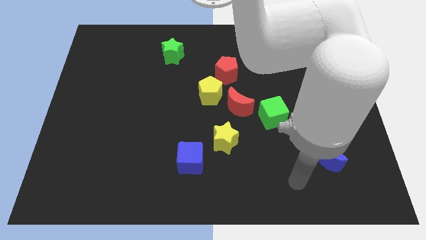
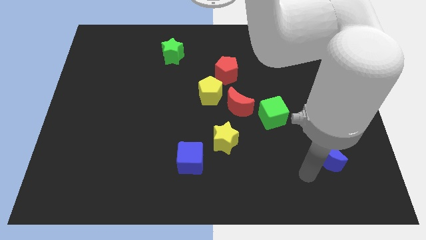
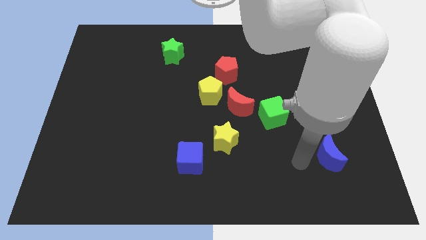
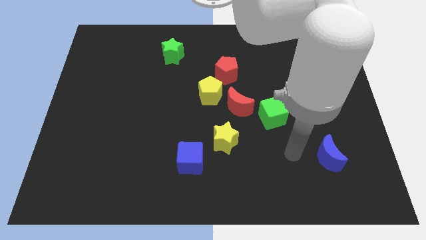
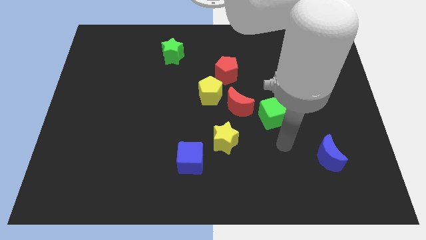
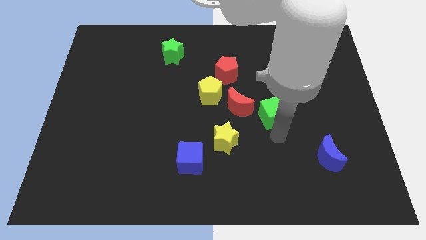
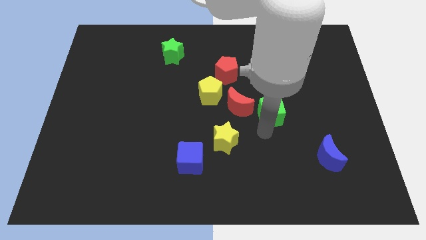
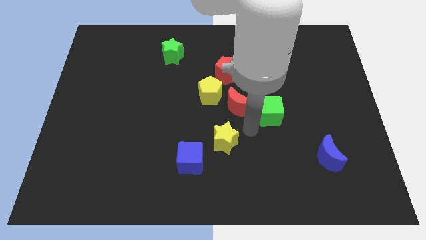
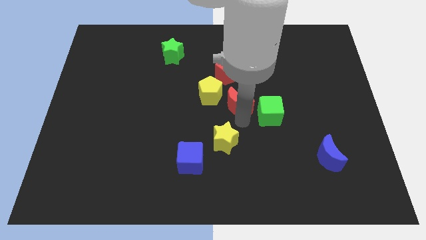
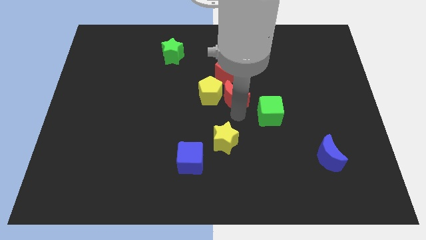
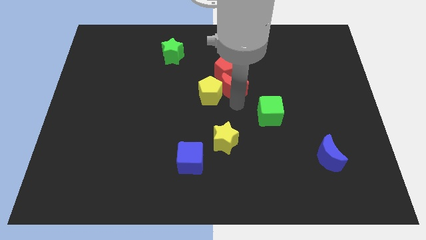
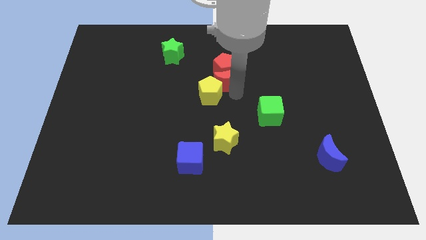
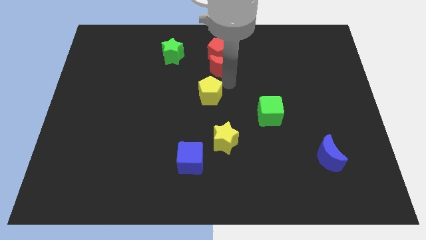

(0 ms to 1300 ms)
separate the yellow pentagon from the red moon and red pentagon

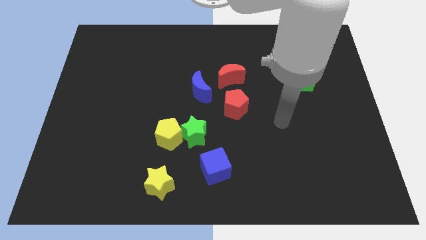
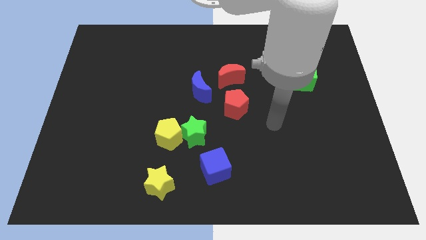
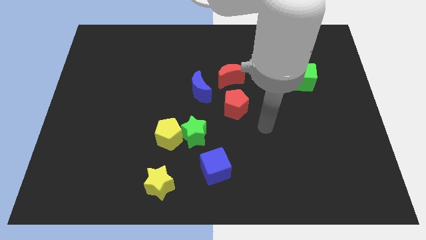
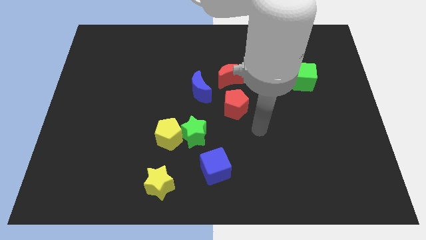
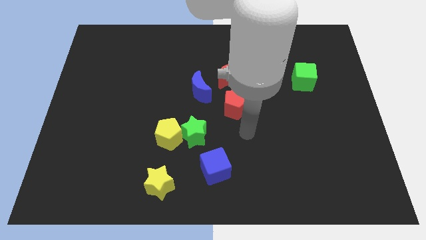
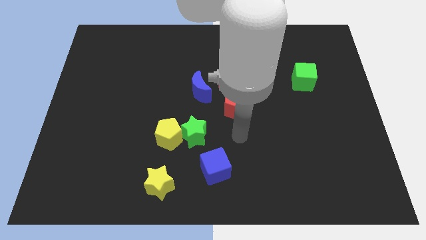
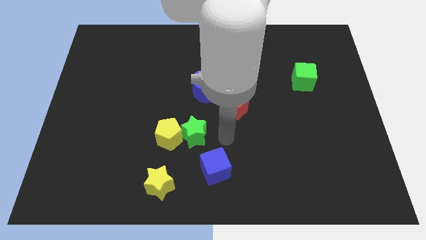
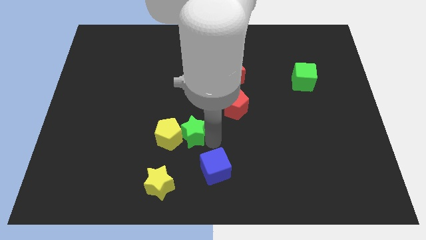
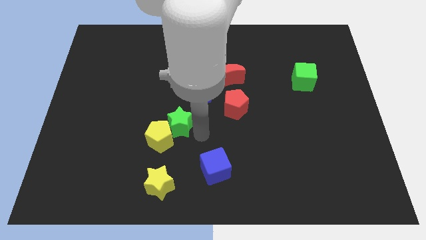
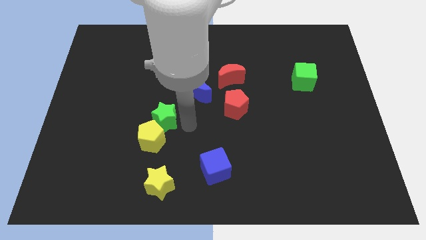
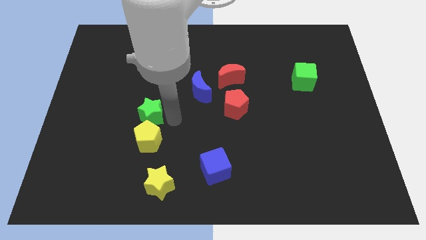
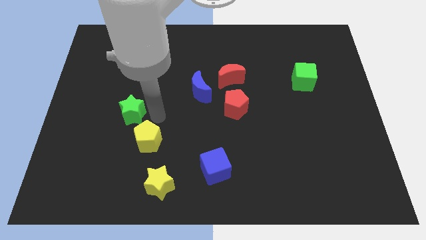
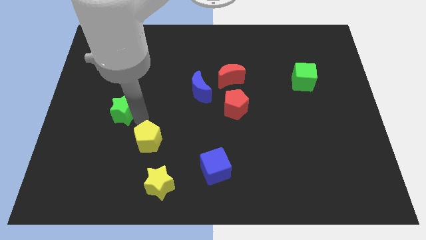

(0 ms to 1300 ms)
pull the yellow pentagon apart from the green star

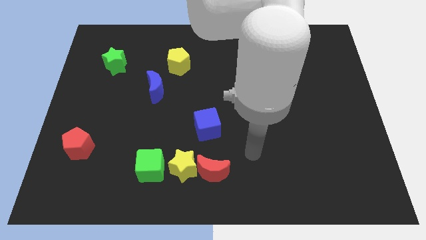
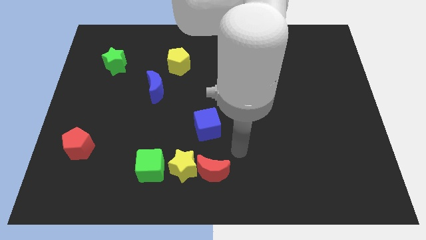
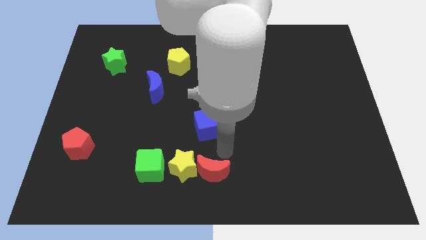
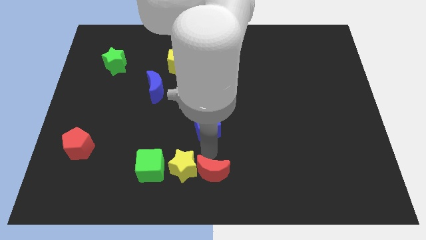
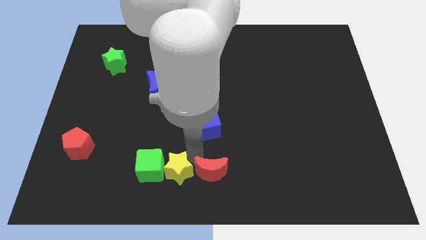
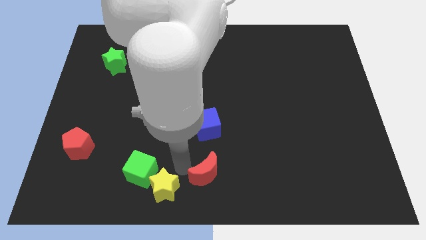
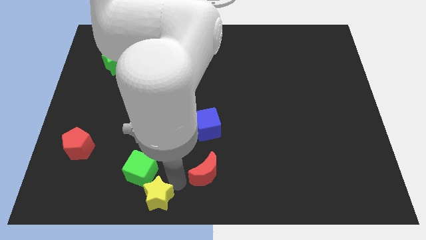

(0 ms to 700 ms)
move the red moon away from the yellow star

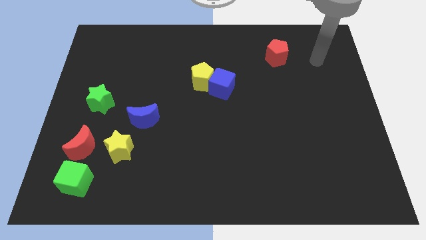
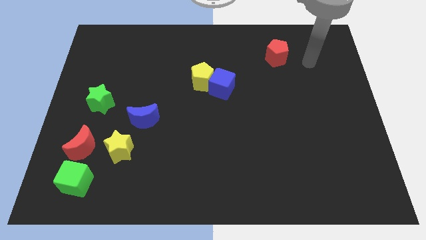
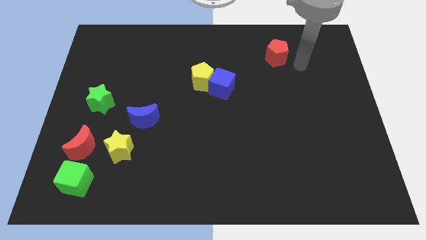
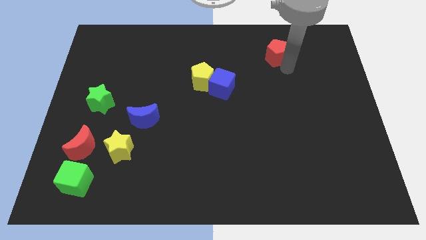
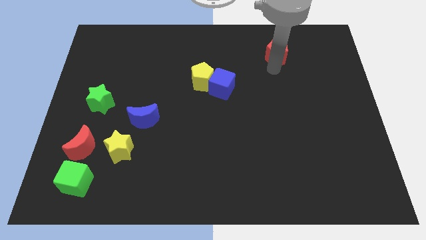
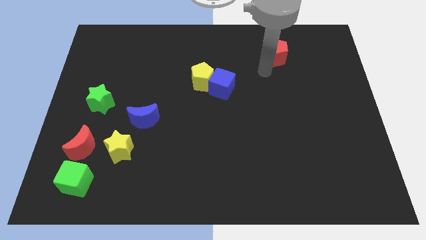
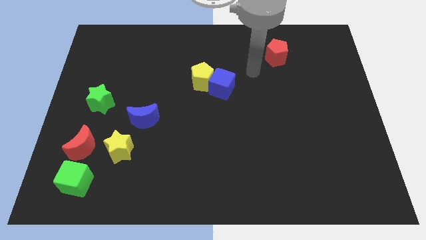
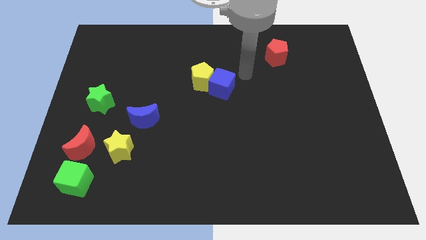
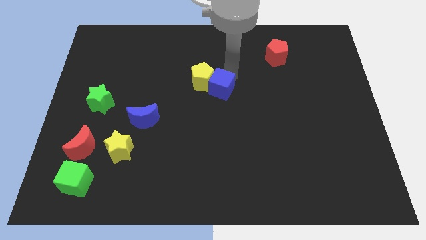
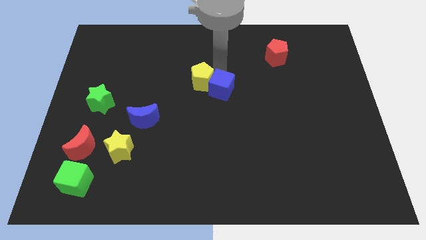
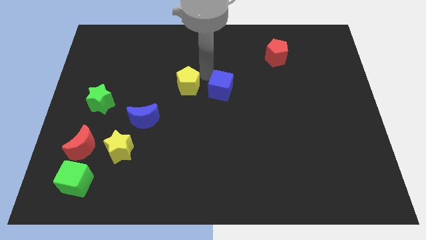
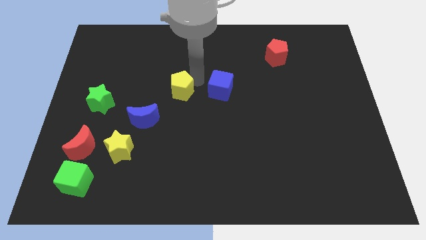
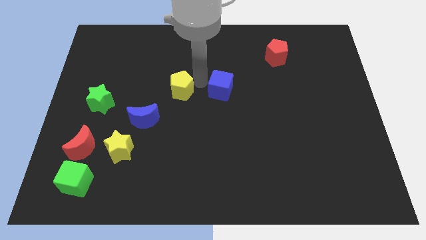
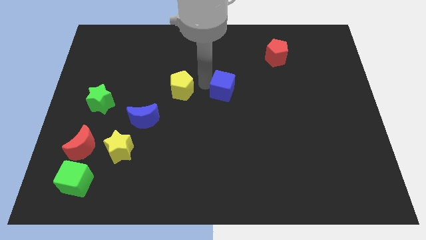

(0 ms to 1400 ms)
pull the blue cube apart from the yellow pentagon

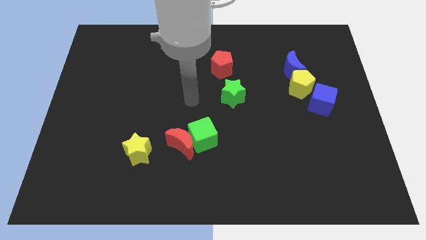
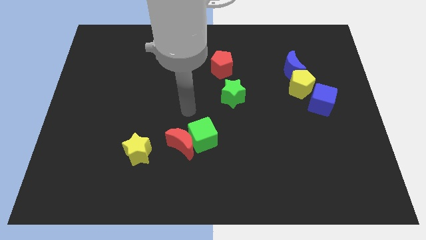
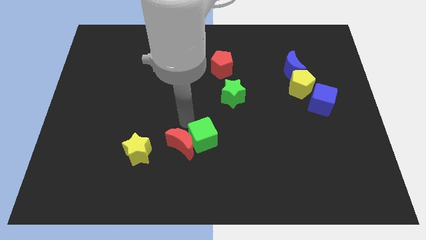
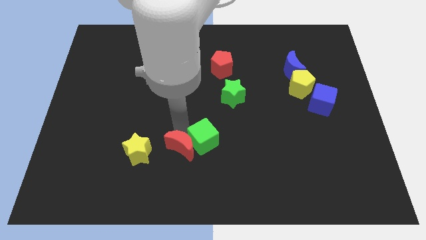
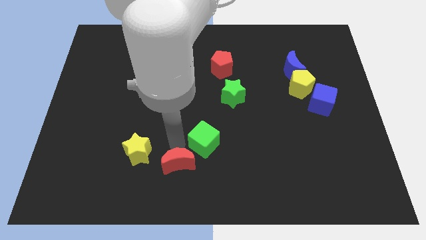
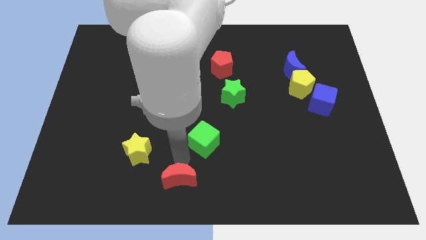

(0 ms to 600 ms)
move the green cube away from the red moon

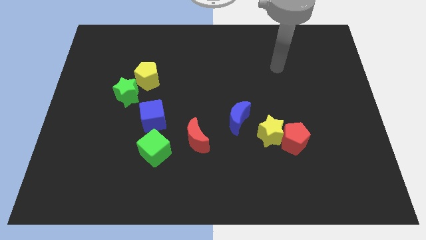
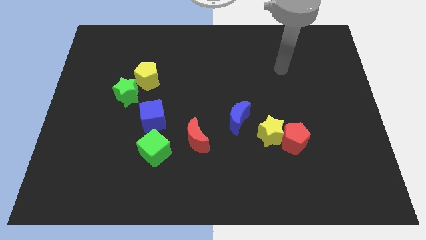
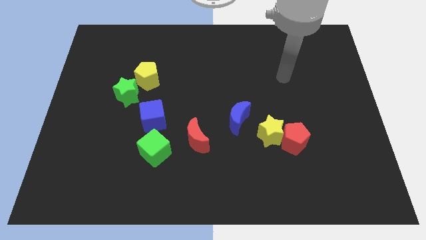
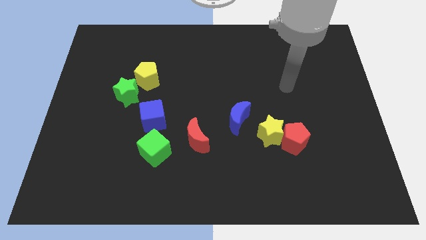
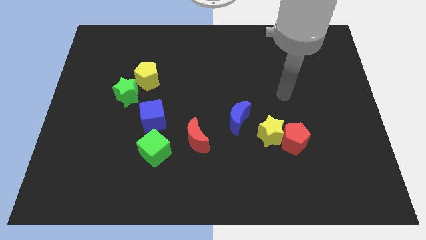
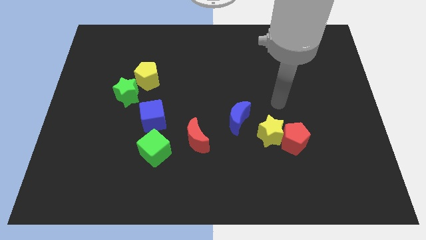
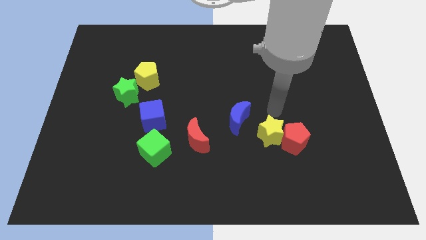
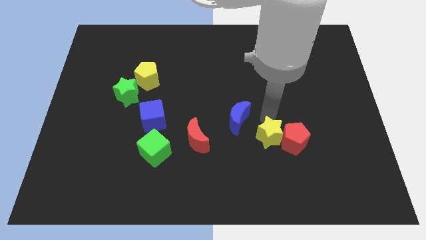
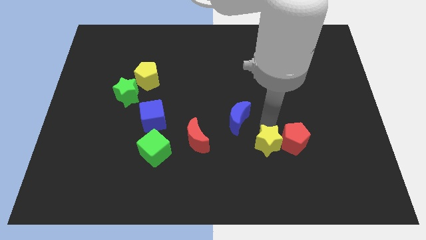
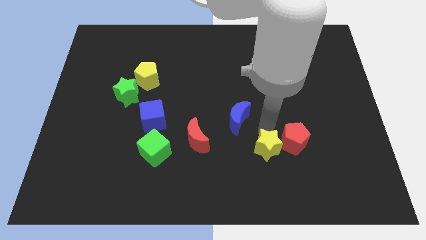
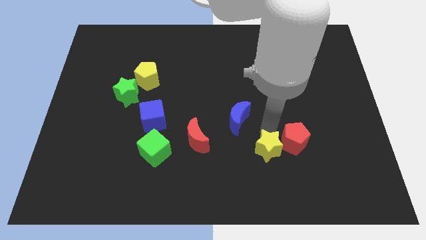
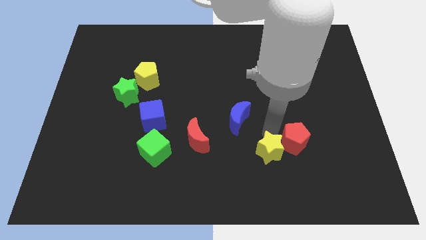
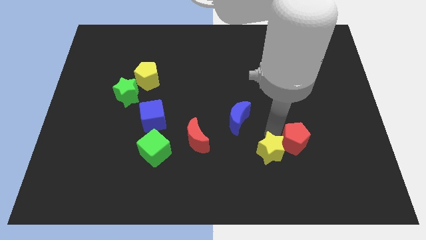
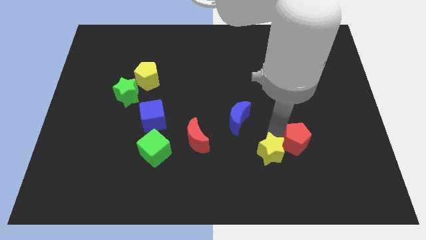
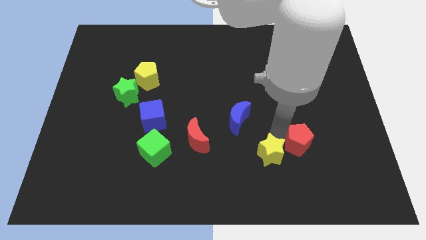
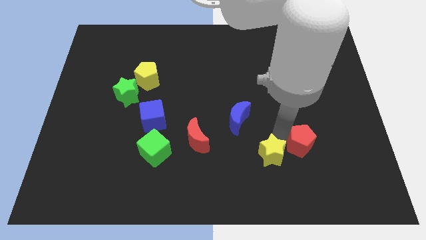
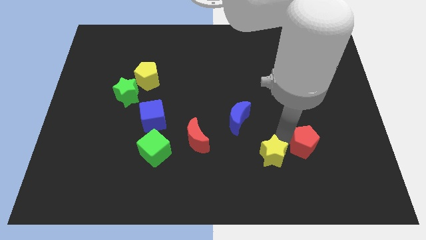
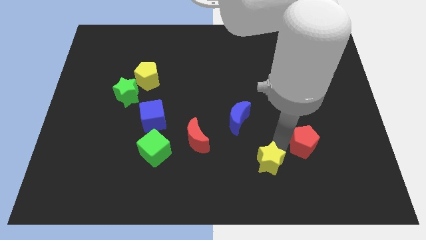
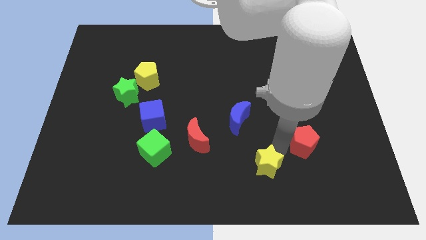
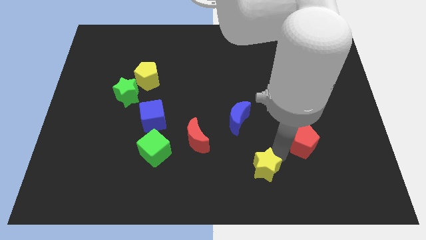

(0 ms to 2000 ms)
separate the red pentagon from the yellow star

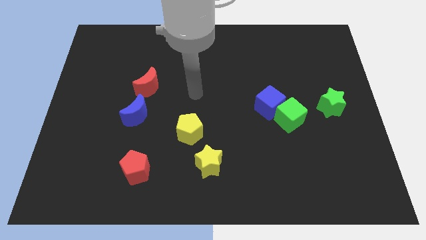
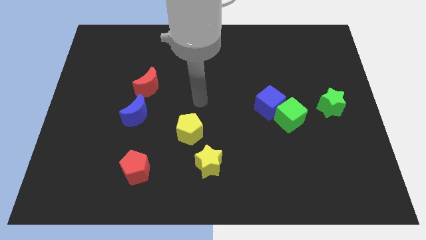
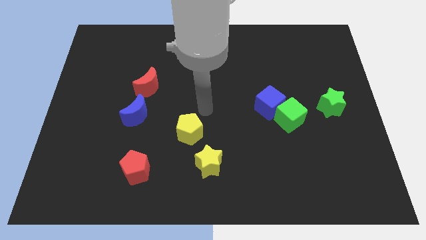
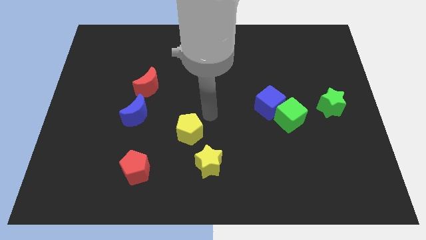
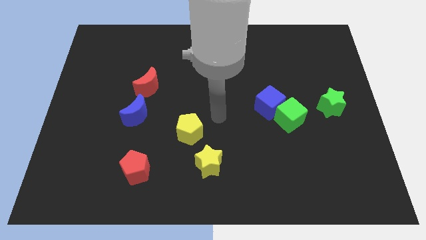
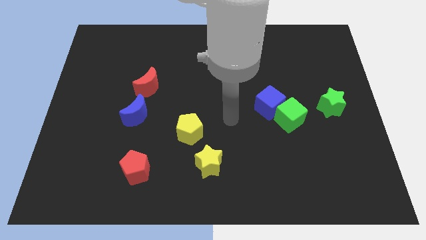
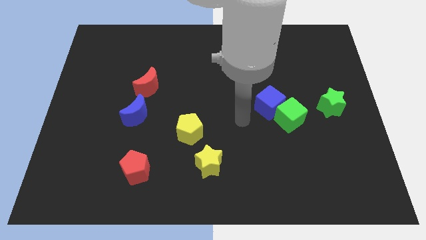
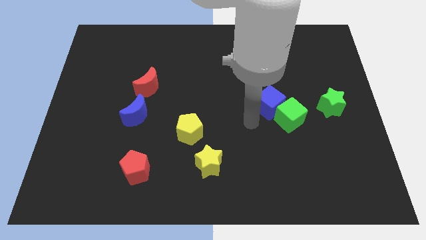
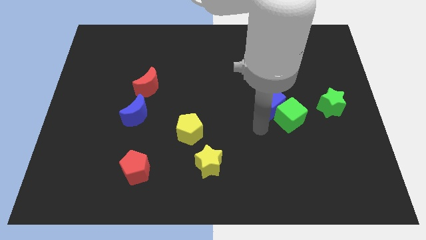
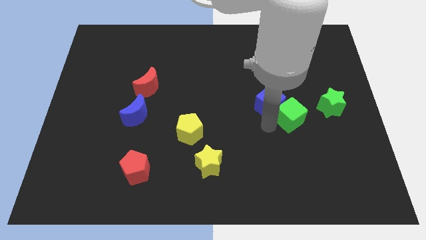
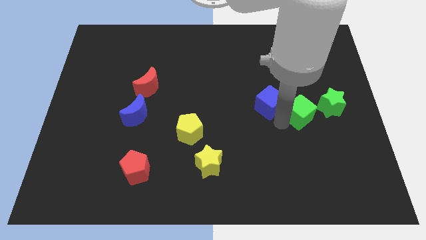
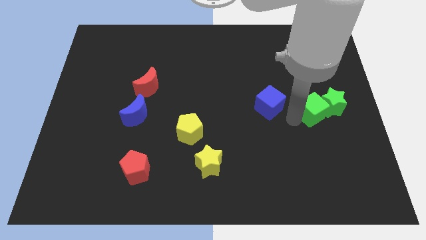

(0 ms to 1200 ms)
separate the blue cube from the green cube

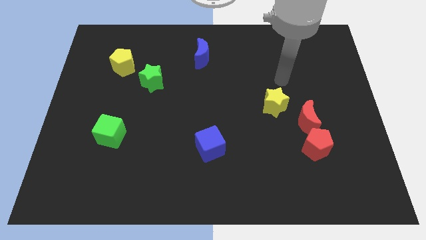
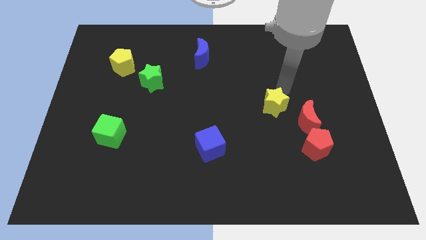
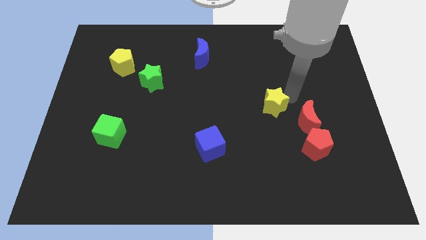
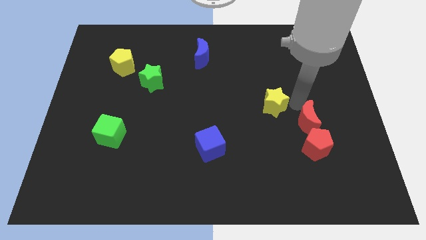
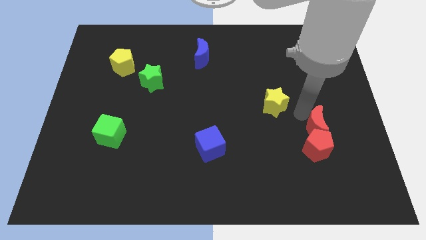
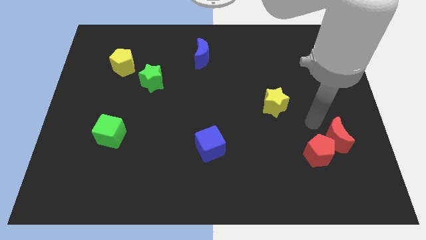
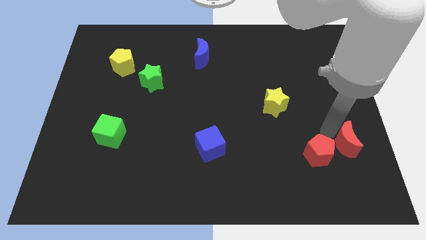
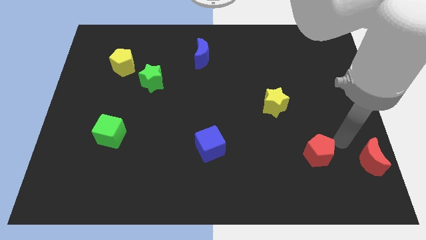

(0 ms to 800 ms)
move the red pentagon away from the red moon

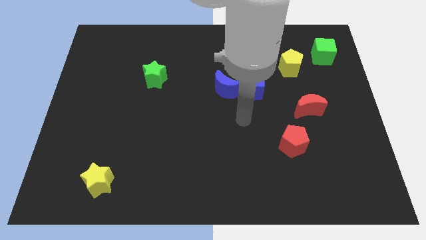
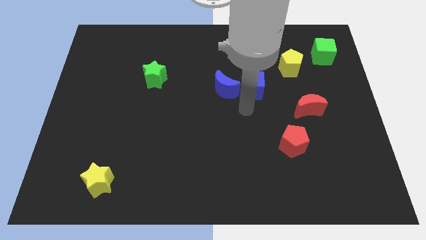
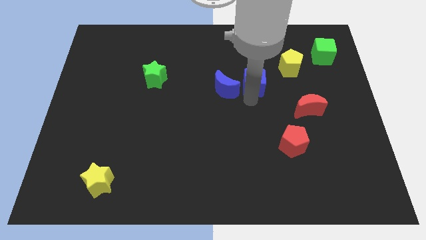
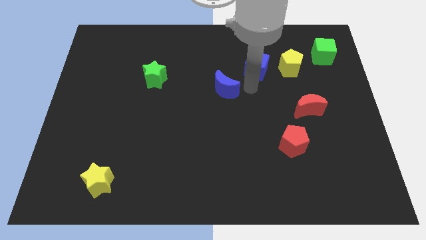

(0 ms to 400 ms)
separate the blue moon from the blue cube
